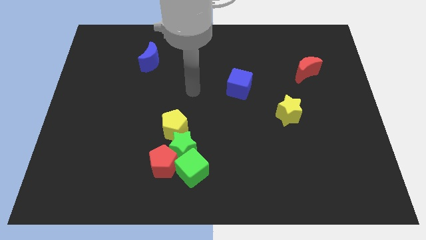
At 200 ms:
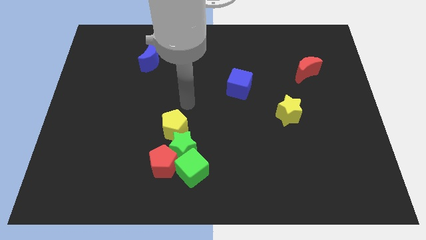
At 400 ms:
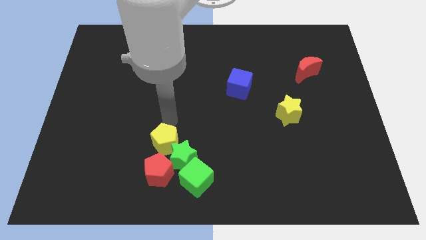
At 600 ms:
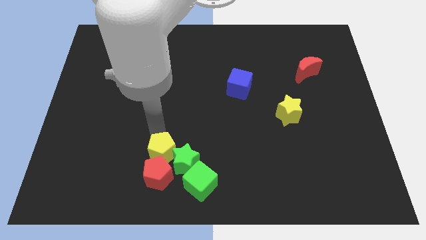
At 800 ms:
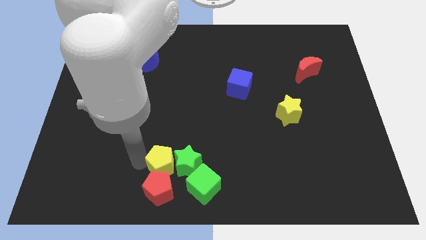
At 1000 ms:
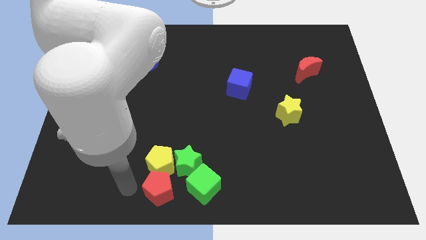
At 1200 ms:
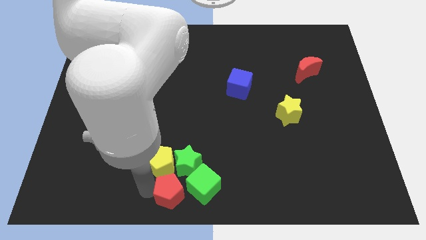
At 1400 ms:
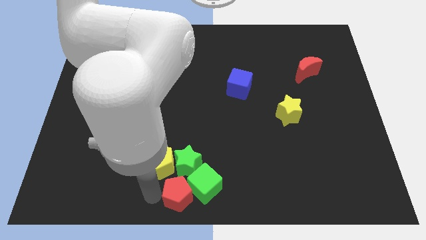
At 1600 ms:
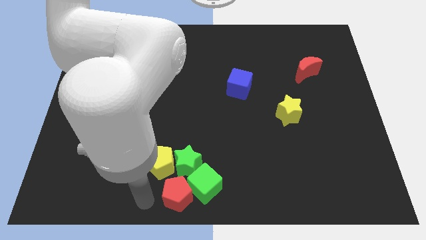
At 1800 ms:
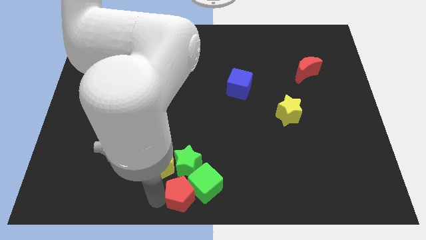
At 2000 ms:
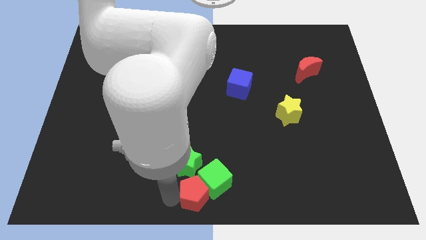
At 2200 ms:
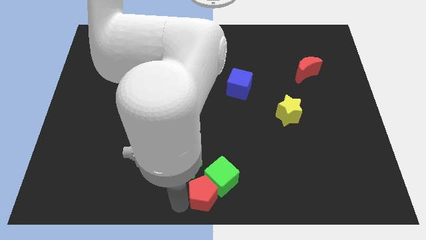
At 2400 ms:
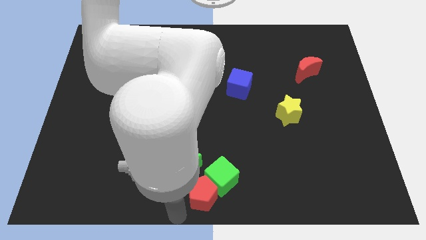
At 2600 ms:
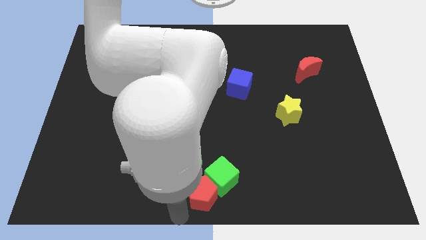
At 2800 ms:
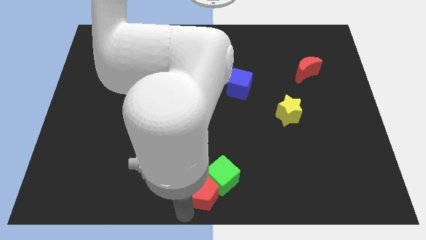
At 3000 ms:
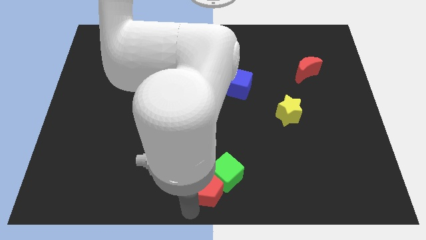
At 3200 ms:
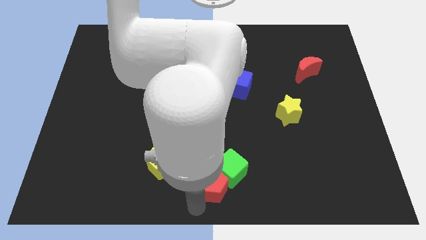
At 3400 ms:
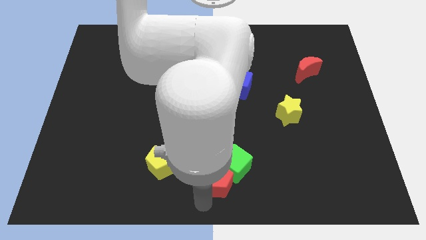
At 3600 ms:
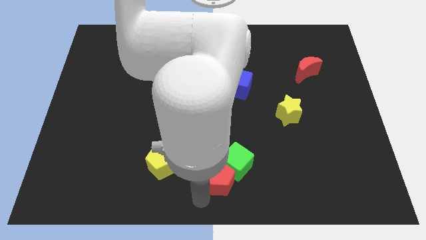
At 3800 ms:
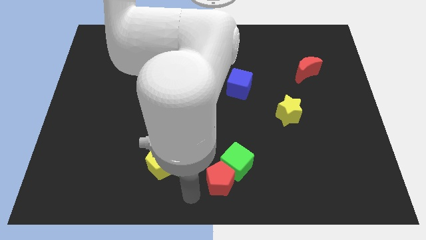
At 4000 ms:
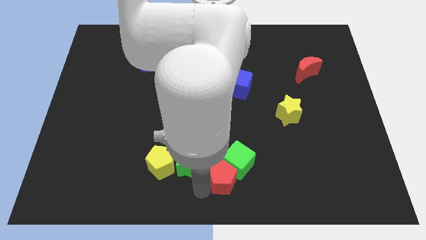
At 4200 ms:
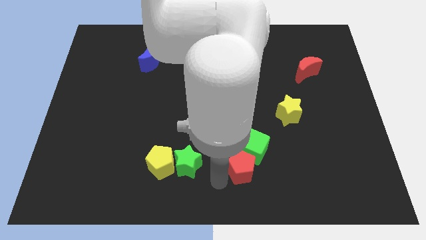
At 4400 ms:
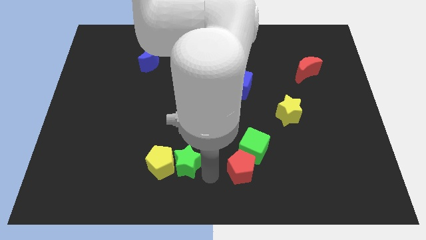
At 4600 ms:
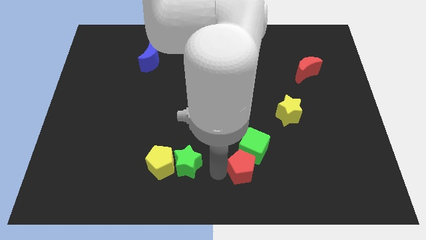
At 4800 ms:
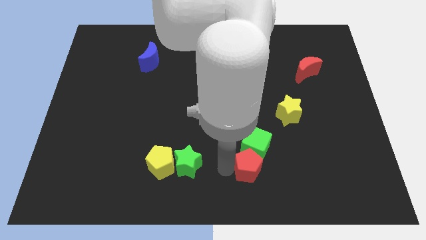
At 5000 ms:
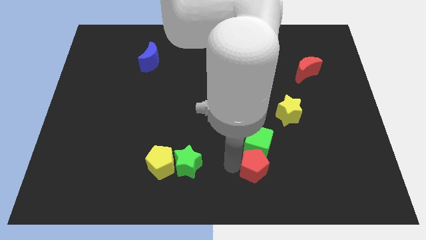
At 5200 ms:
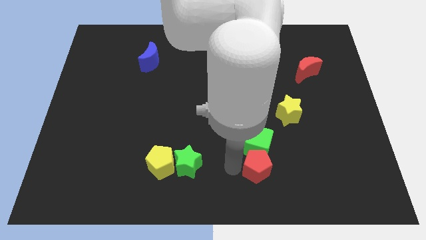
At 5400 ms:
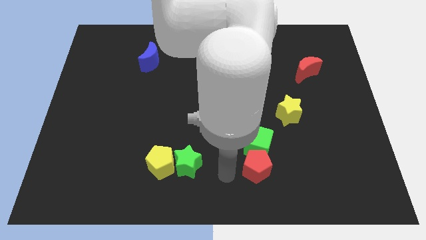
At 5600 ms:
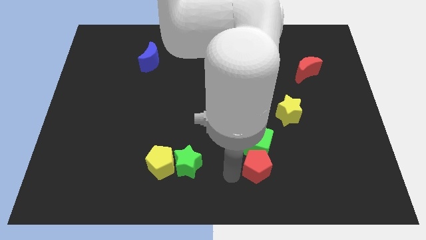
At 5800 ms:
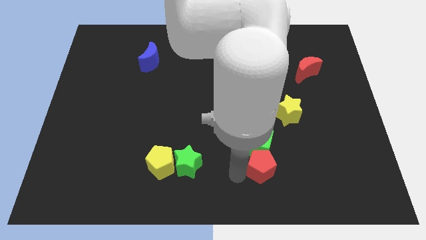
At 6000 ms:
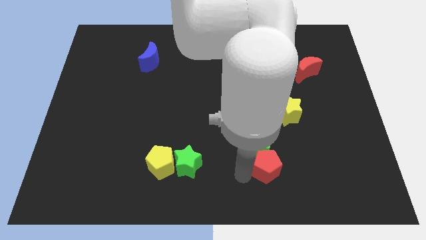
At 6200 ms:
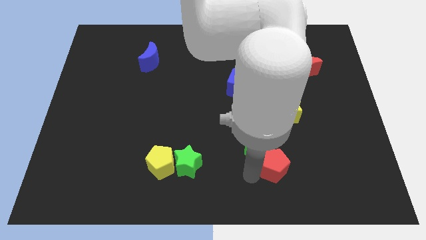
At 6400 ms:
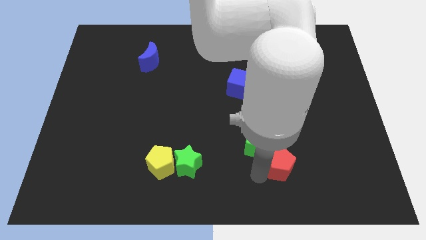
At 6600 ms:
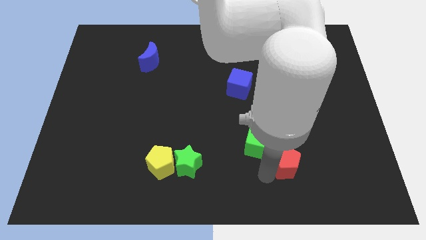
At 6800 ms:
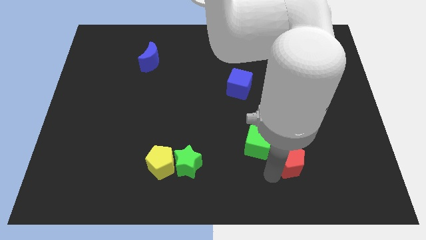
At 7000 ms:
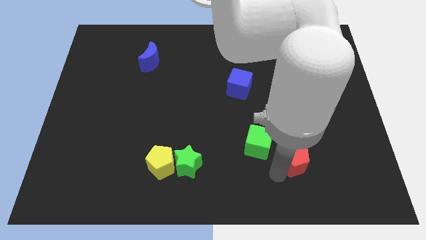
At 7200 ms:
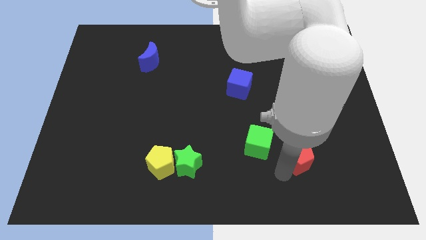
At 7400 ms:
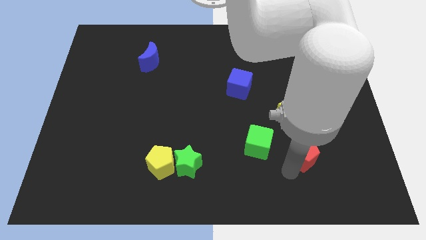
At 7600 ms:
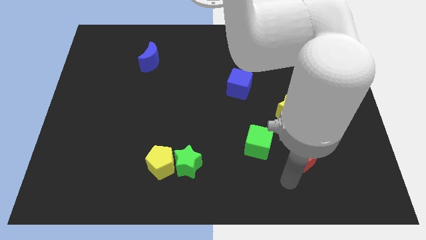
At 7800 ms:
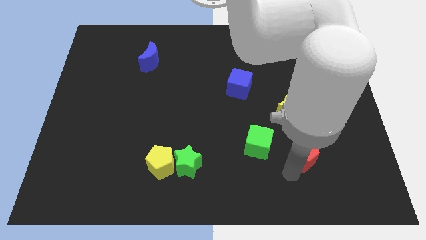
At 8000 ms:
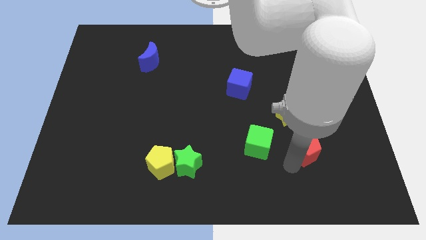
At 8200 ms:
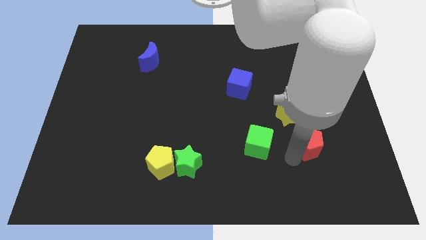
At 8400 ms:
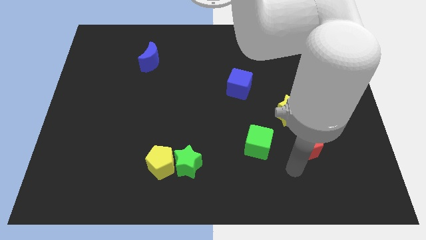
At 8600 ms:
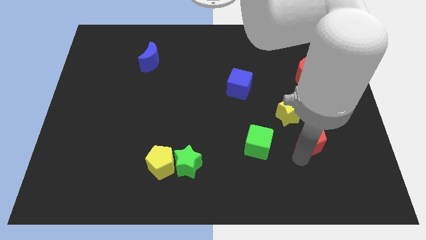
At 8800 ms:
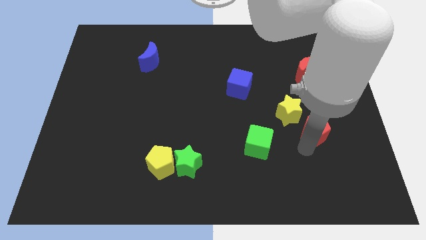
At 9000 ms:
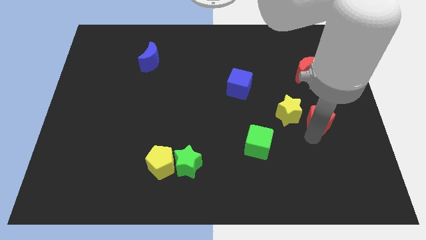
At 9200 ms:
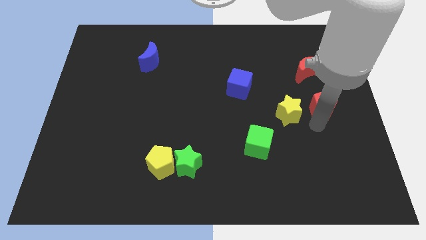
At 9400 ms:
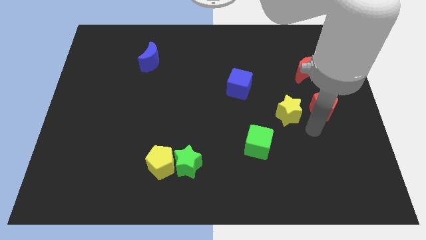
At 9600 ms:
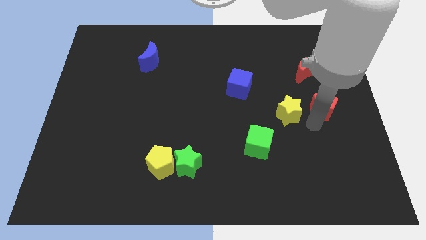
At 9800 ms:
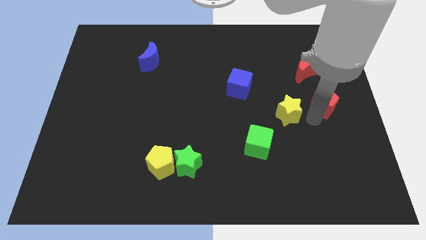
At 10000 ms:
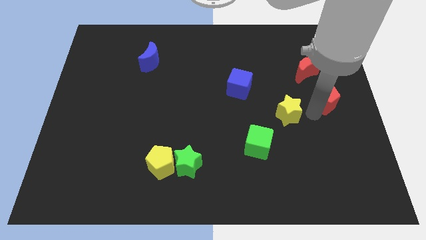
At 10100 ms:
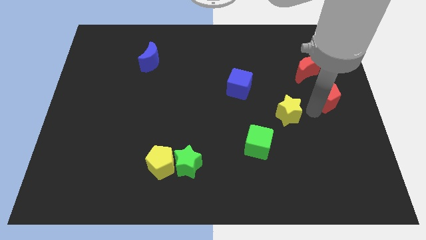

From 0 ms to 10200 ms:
put the red pentagon to the bottom right side of the red moon
